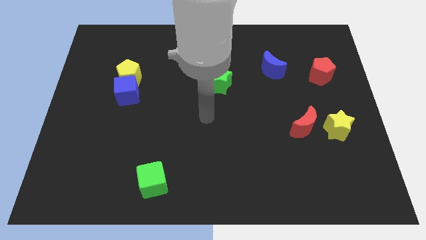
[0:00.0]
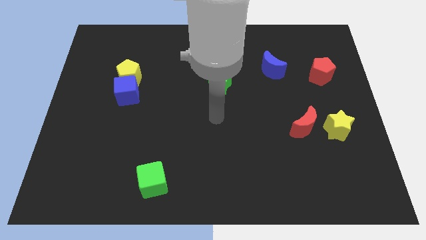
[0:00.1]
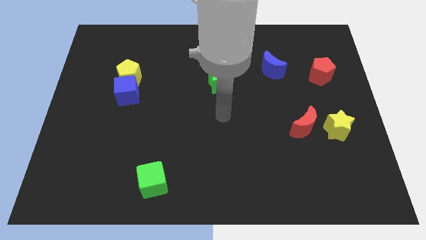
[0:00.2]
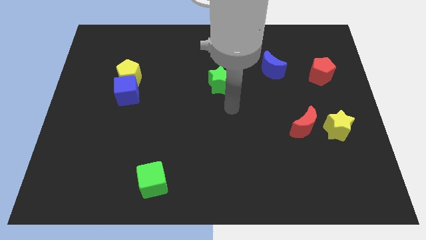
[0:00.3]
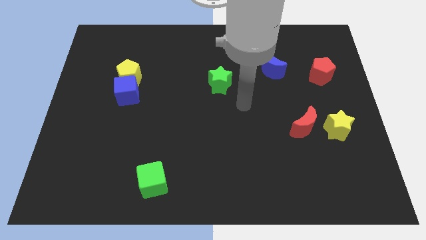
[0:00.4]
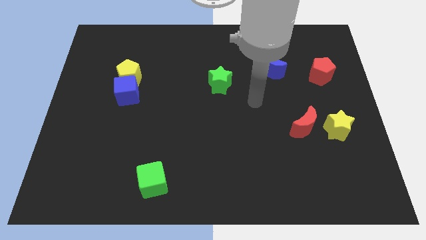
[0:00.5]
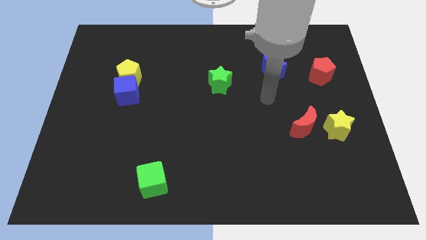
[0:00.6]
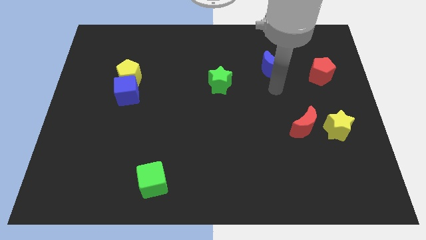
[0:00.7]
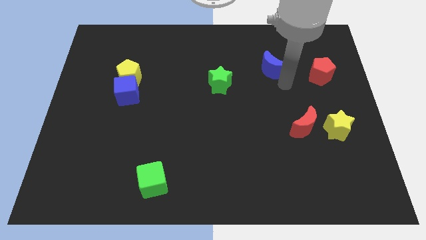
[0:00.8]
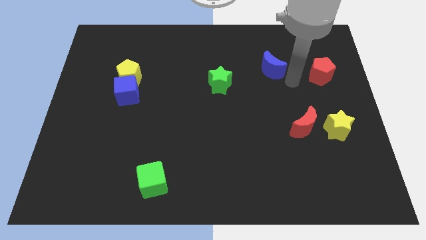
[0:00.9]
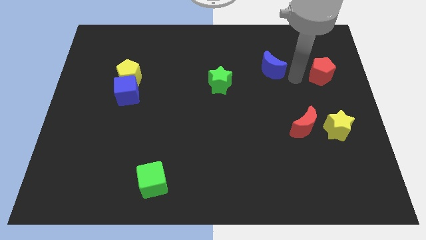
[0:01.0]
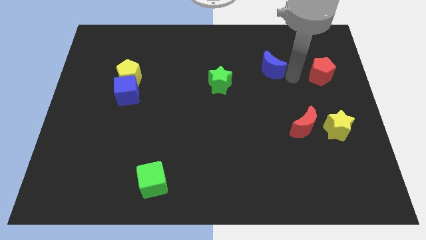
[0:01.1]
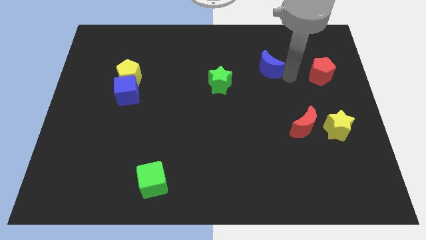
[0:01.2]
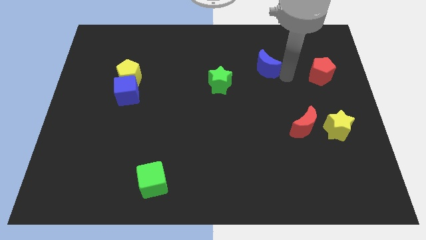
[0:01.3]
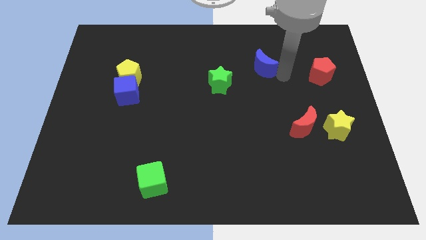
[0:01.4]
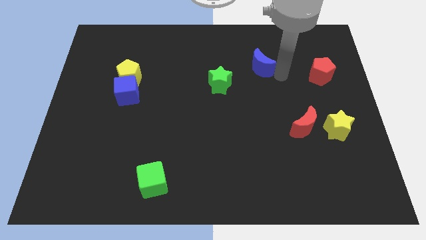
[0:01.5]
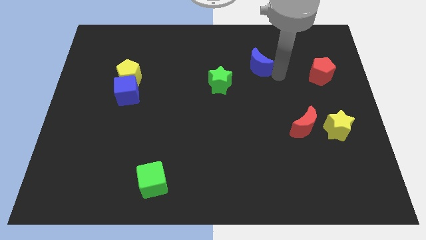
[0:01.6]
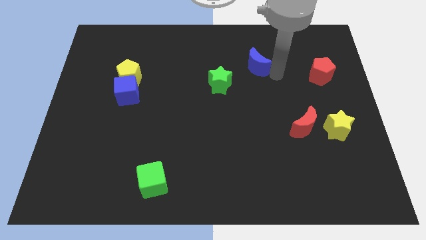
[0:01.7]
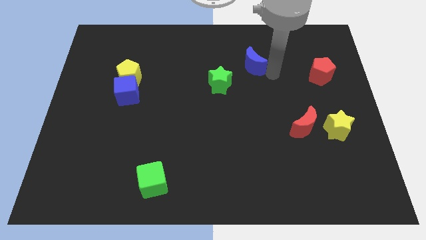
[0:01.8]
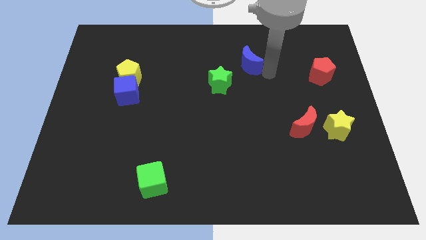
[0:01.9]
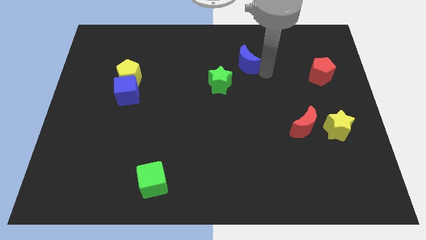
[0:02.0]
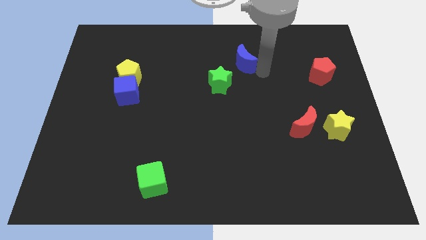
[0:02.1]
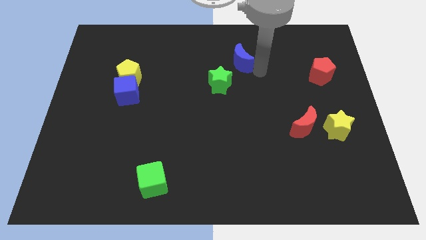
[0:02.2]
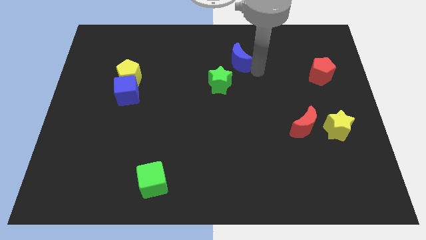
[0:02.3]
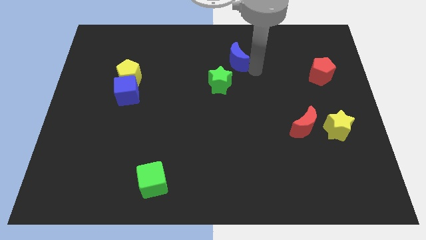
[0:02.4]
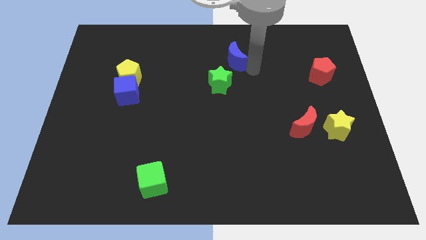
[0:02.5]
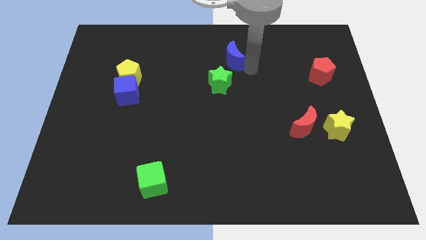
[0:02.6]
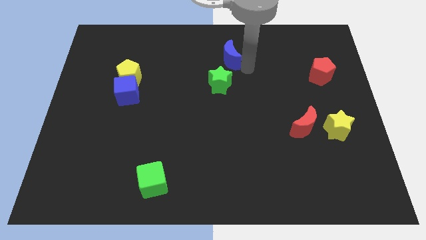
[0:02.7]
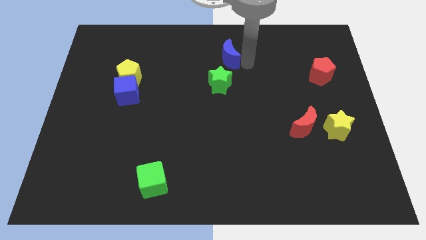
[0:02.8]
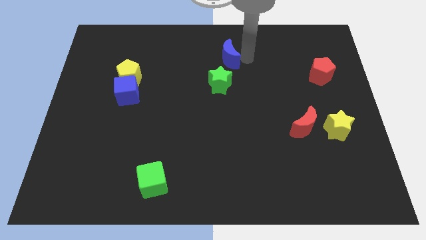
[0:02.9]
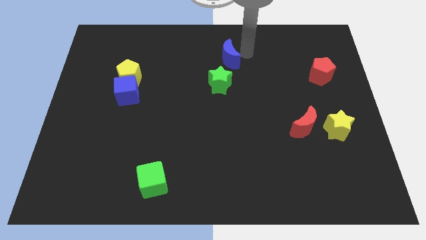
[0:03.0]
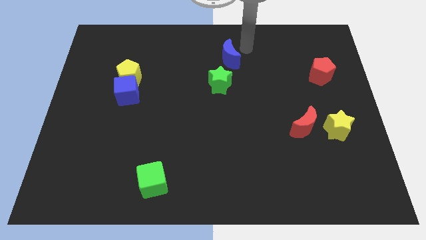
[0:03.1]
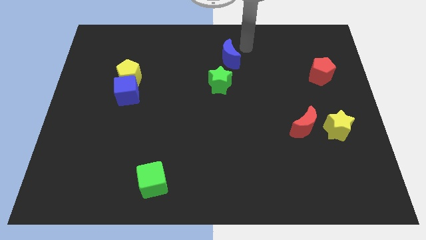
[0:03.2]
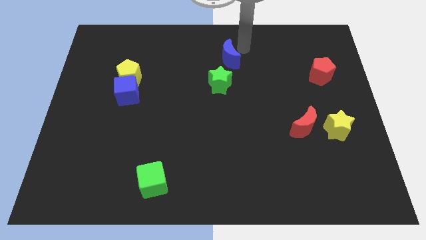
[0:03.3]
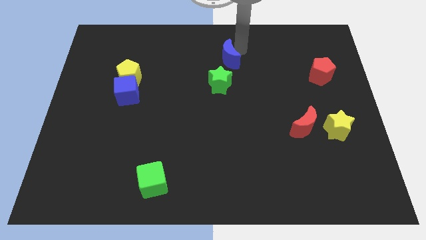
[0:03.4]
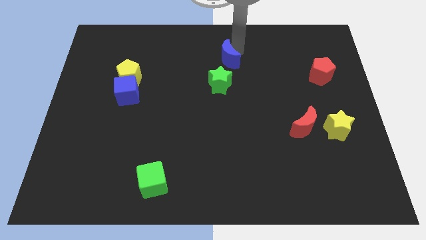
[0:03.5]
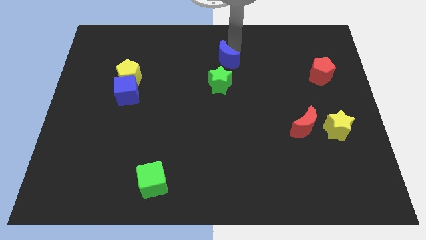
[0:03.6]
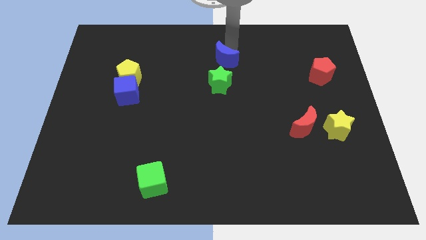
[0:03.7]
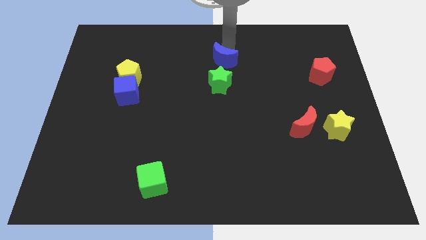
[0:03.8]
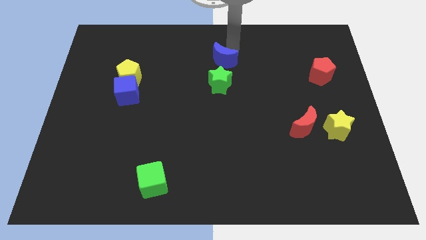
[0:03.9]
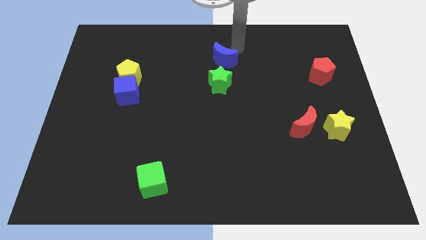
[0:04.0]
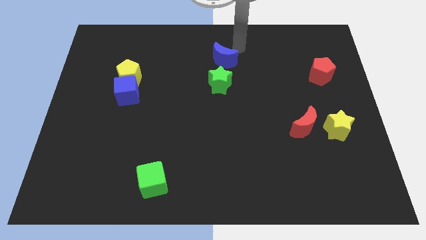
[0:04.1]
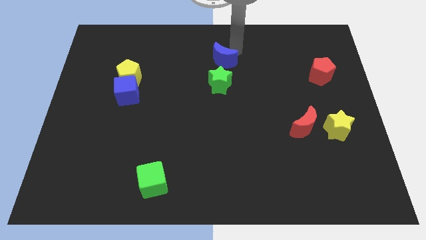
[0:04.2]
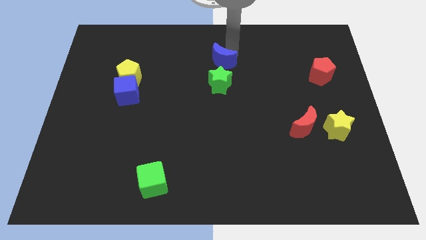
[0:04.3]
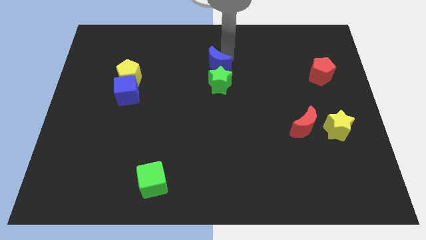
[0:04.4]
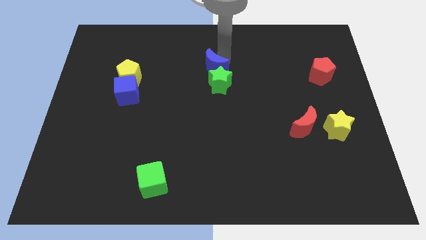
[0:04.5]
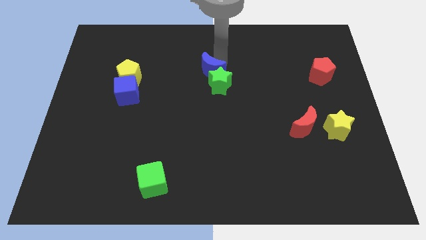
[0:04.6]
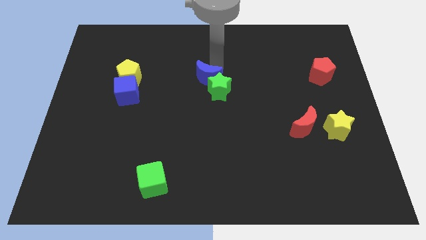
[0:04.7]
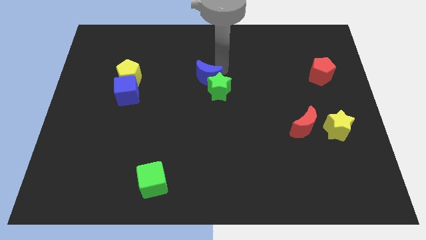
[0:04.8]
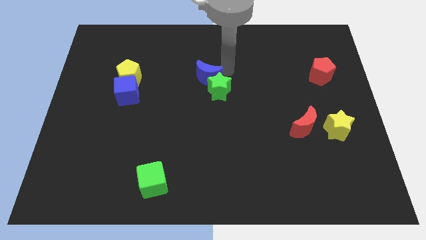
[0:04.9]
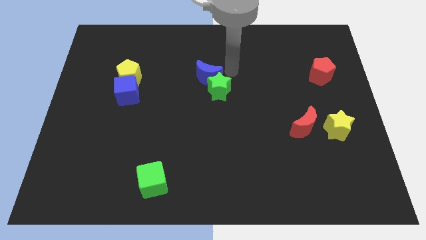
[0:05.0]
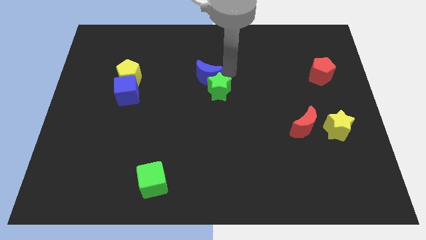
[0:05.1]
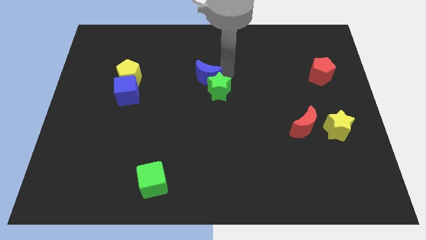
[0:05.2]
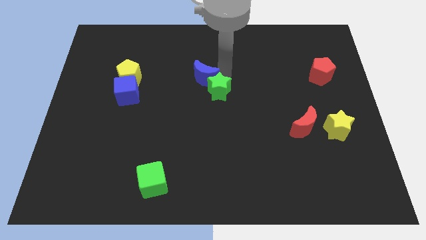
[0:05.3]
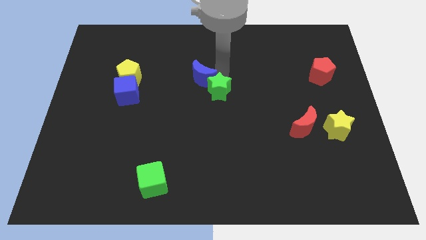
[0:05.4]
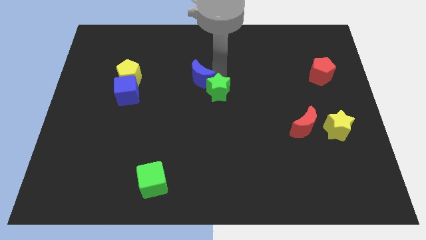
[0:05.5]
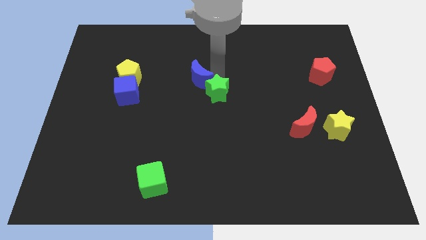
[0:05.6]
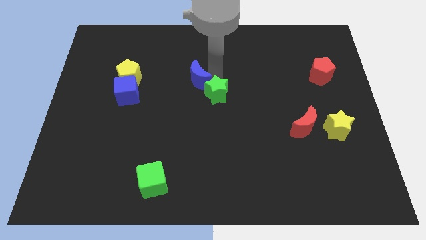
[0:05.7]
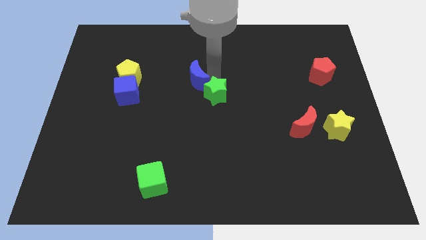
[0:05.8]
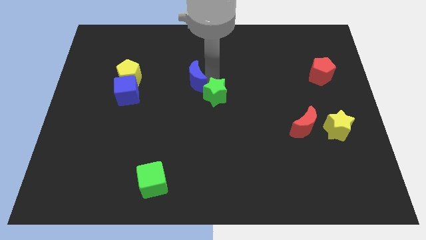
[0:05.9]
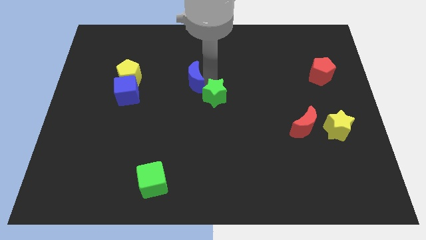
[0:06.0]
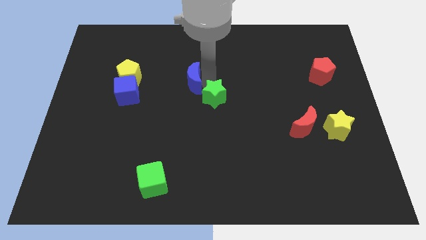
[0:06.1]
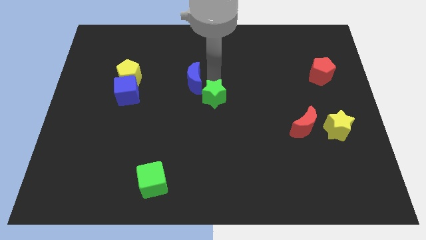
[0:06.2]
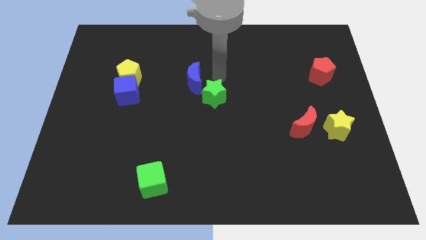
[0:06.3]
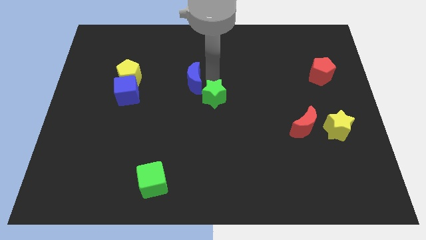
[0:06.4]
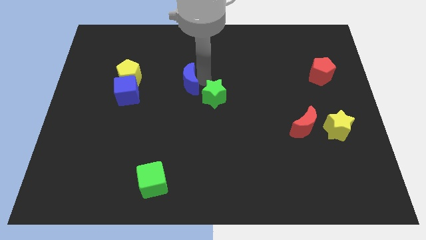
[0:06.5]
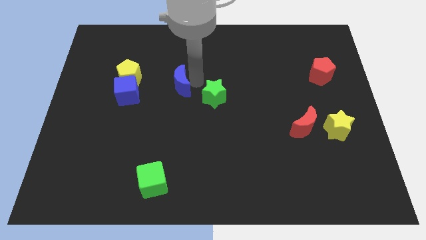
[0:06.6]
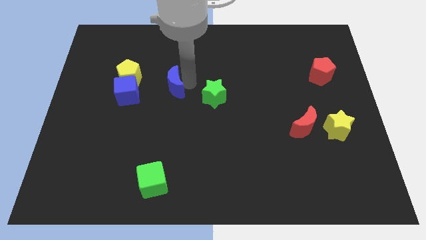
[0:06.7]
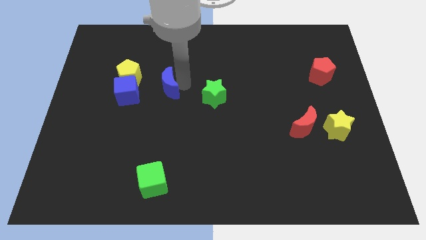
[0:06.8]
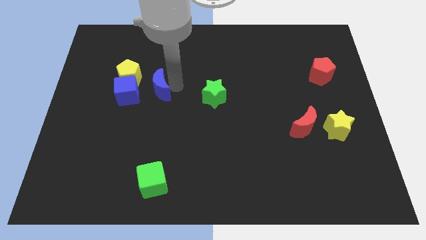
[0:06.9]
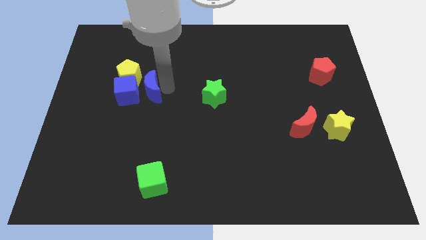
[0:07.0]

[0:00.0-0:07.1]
move the blue moon close to the blue cube
